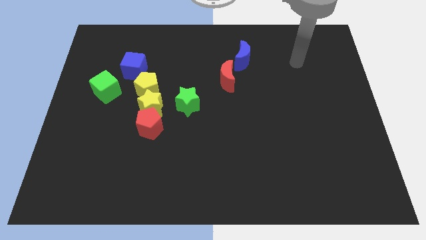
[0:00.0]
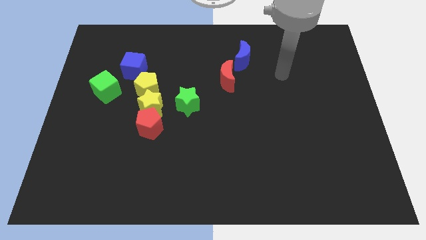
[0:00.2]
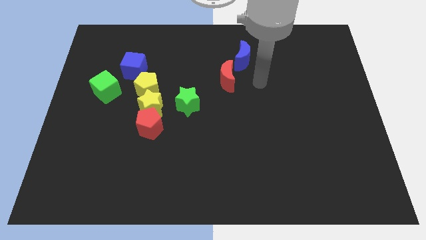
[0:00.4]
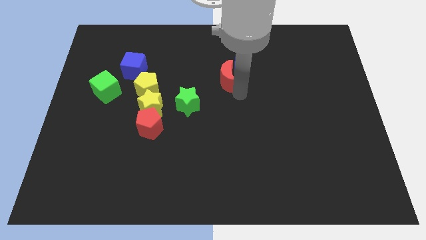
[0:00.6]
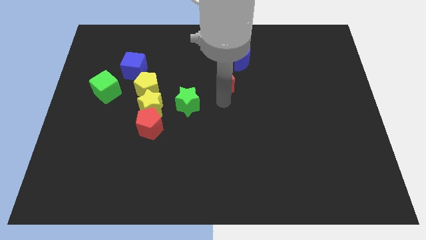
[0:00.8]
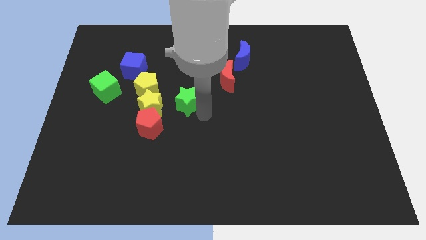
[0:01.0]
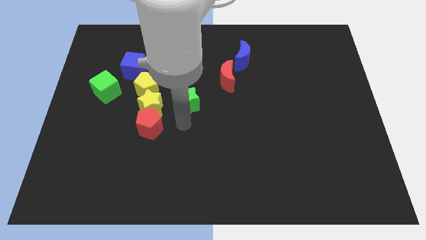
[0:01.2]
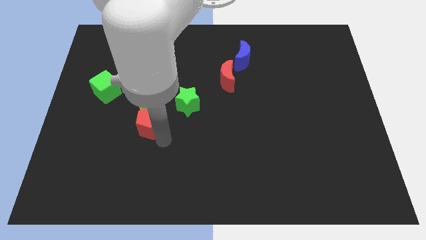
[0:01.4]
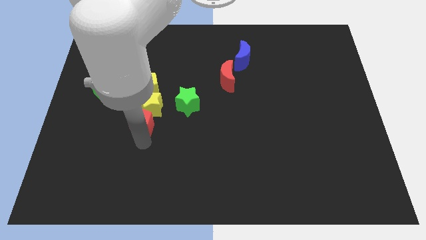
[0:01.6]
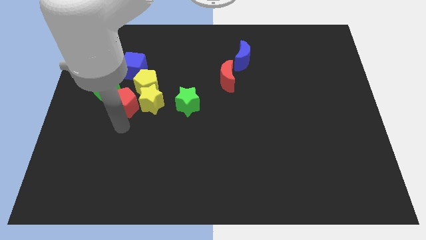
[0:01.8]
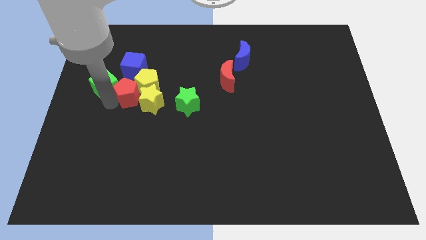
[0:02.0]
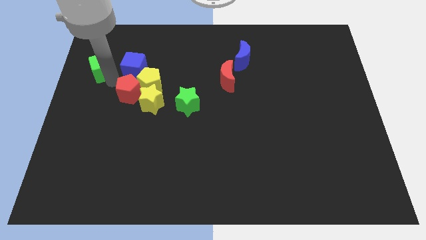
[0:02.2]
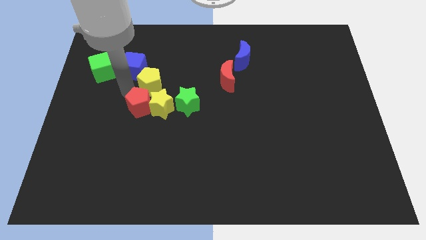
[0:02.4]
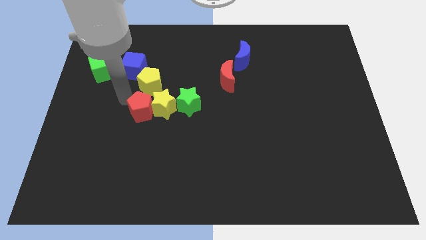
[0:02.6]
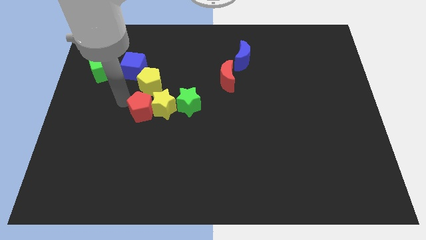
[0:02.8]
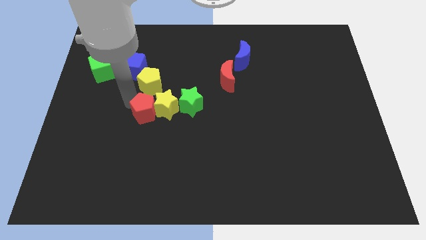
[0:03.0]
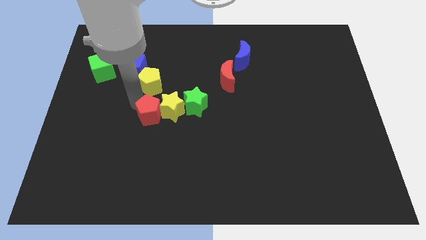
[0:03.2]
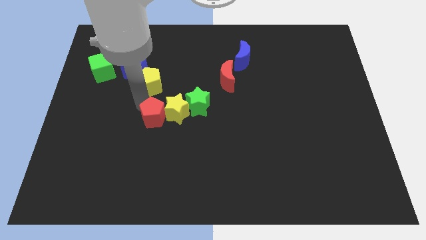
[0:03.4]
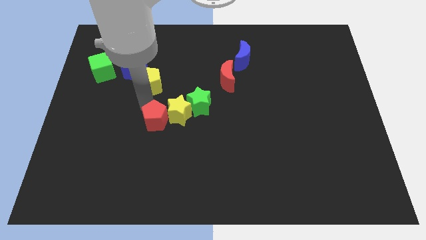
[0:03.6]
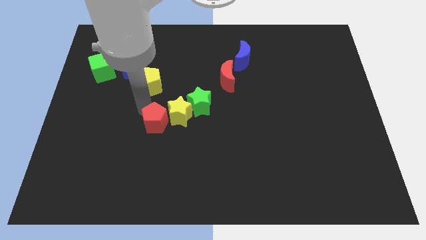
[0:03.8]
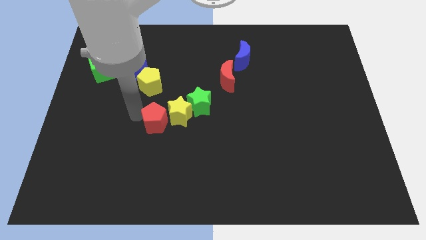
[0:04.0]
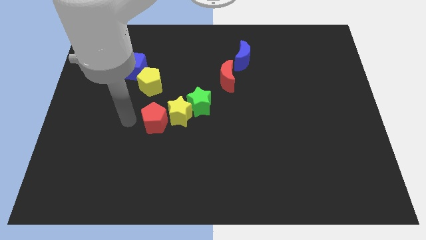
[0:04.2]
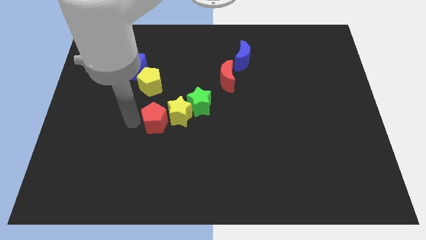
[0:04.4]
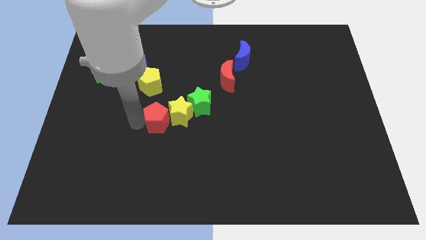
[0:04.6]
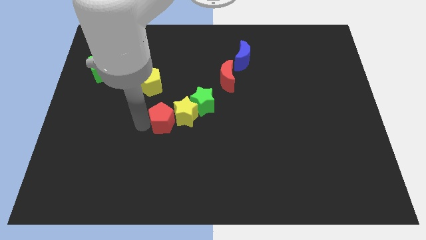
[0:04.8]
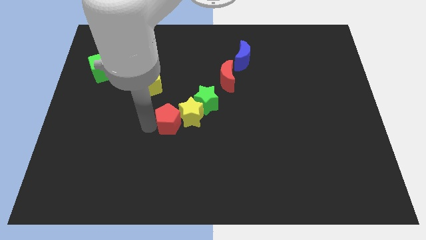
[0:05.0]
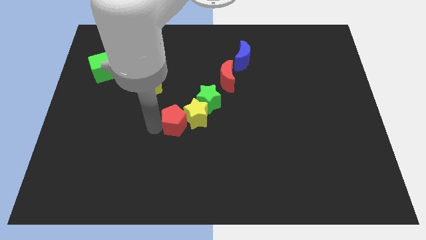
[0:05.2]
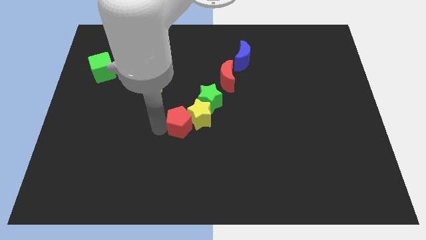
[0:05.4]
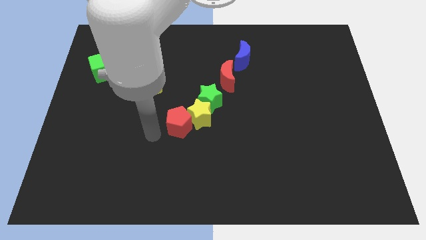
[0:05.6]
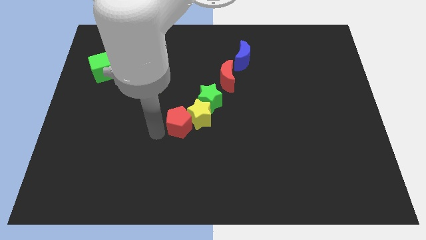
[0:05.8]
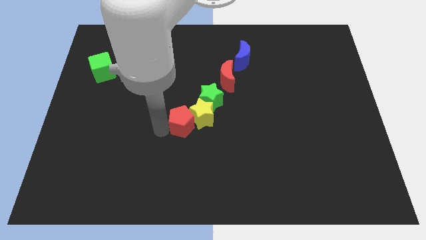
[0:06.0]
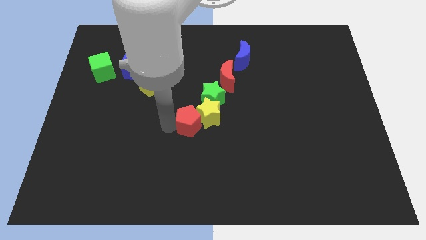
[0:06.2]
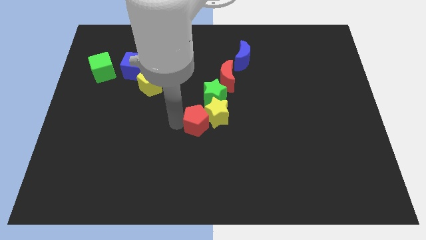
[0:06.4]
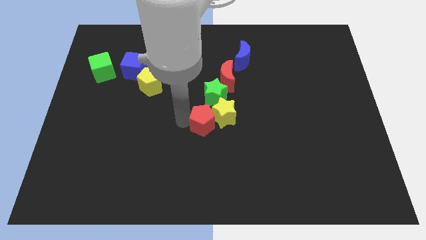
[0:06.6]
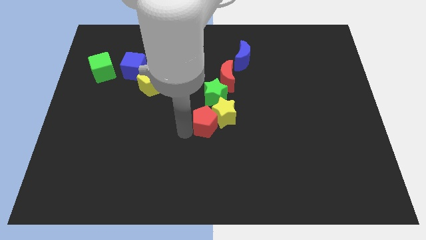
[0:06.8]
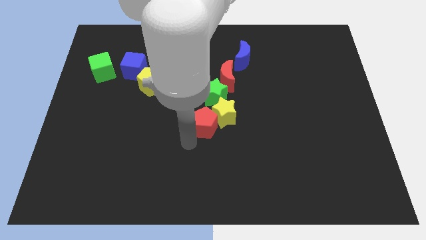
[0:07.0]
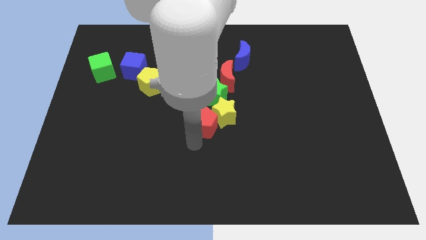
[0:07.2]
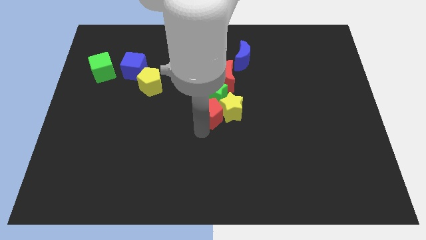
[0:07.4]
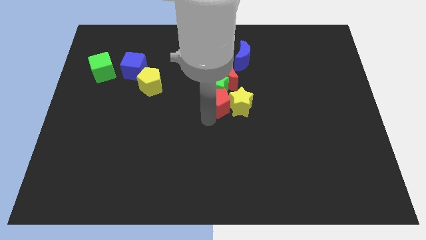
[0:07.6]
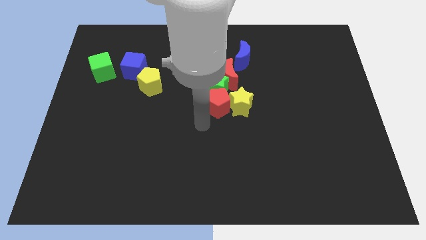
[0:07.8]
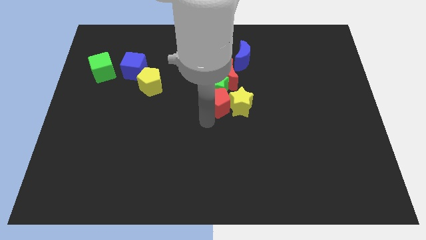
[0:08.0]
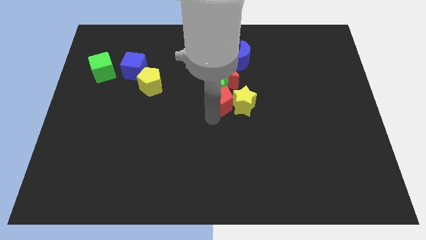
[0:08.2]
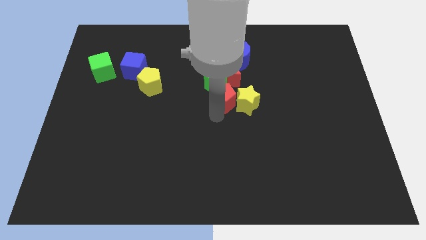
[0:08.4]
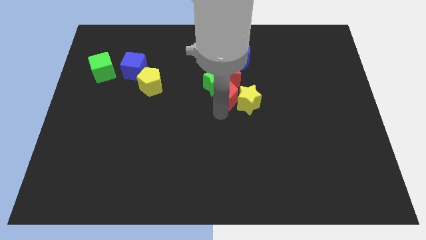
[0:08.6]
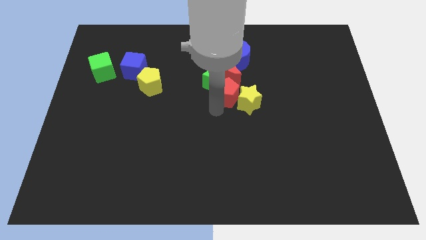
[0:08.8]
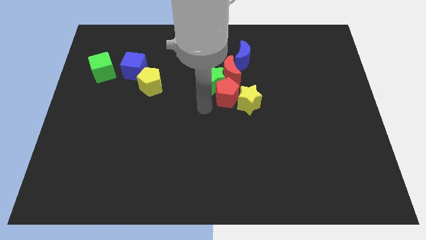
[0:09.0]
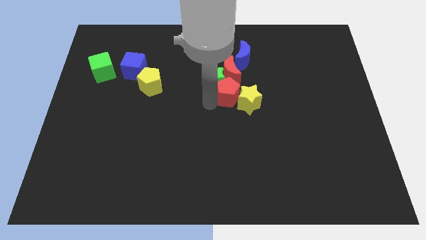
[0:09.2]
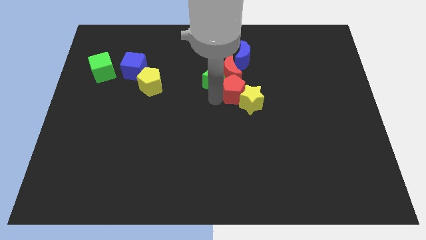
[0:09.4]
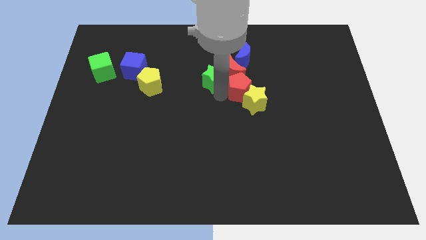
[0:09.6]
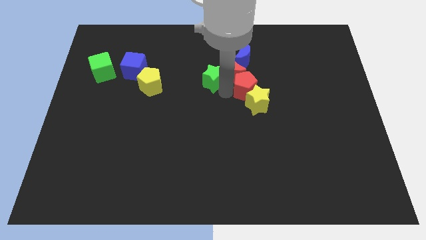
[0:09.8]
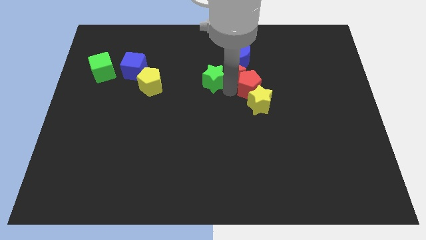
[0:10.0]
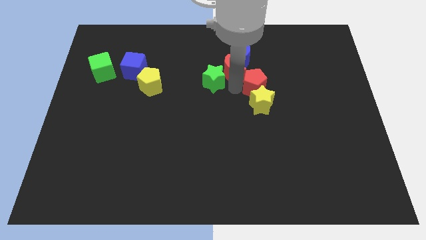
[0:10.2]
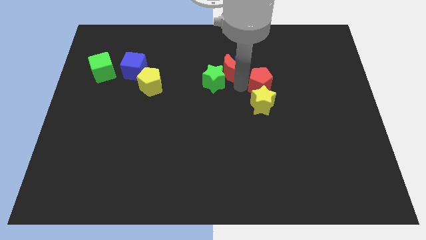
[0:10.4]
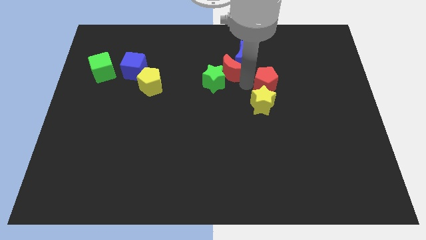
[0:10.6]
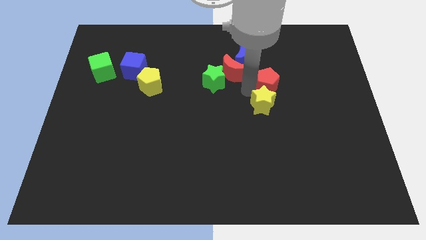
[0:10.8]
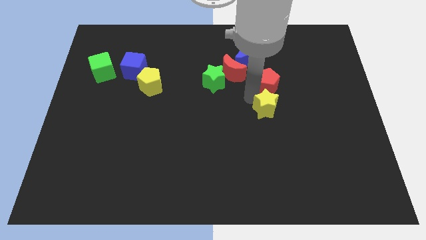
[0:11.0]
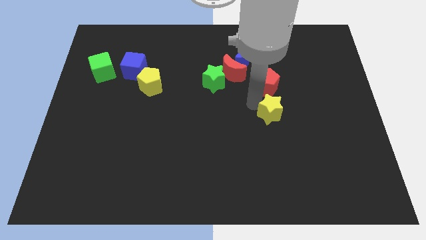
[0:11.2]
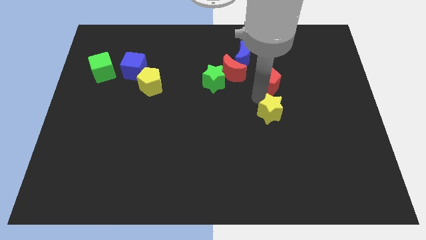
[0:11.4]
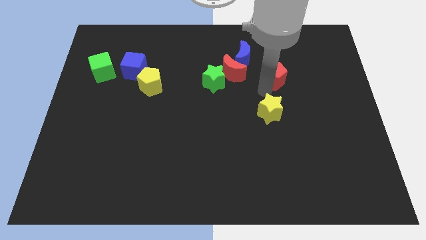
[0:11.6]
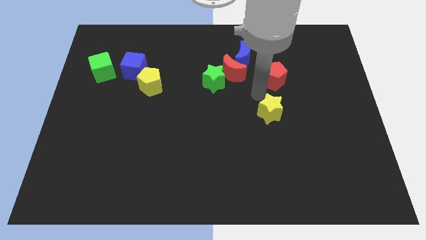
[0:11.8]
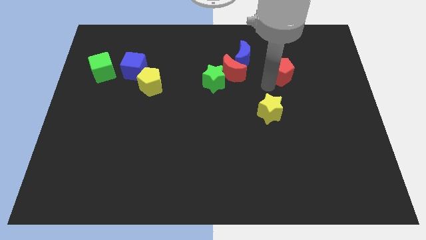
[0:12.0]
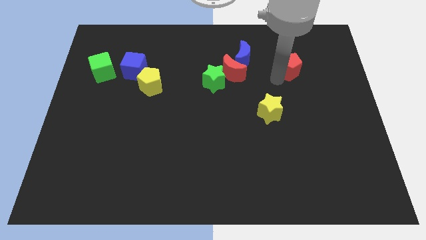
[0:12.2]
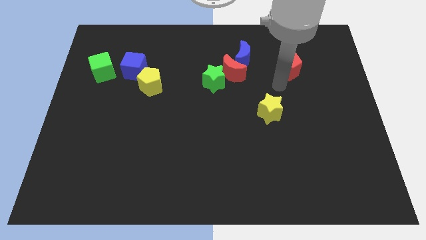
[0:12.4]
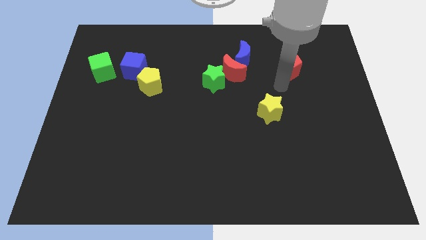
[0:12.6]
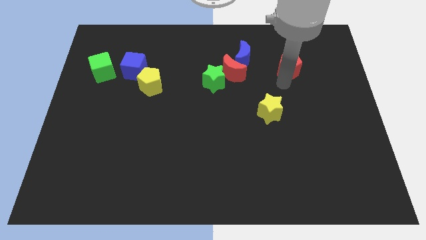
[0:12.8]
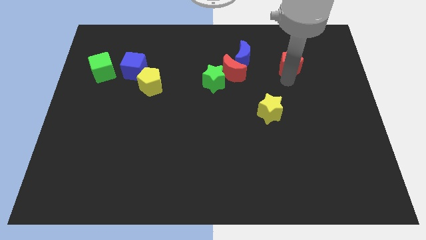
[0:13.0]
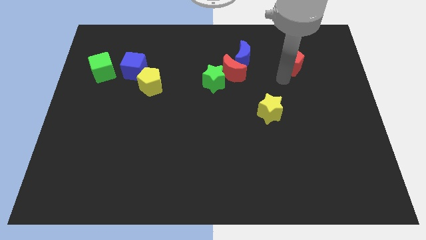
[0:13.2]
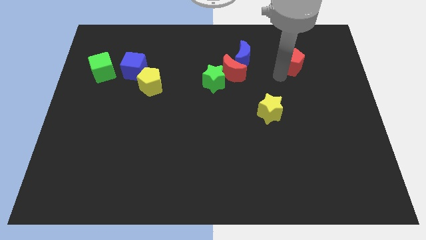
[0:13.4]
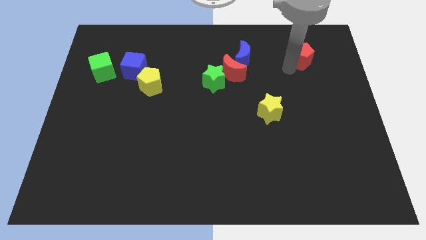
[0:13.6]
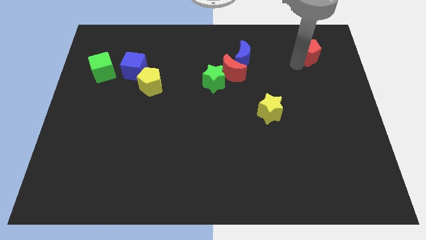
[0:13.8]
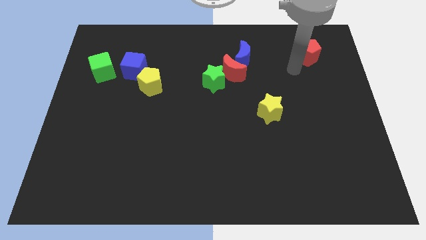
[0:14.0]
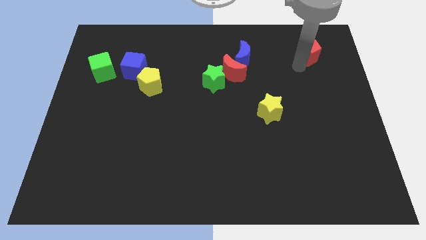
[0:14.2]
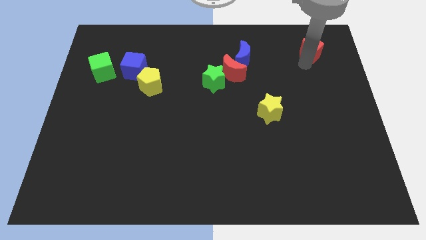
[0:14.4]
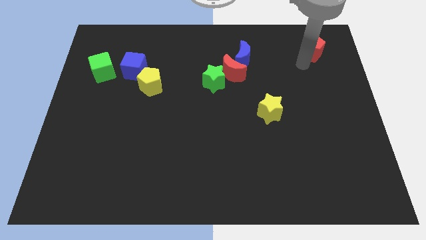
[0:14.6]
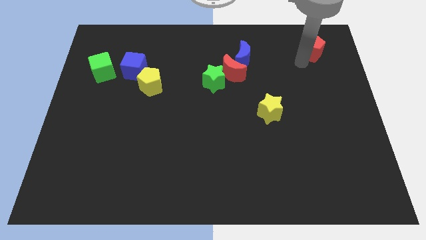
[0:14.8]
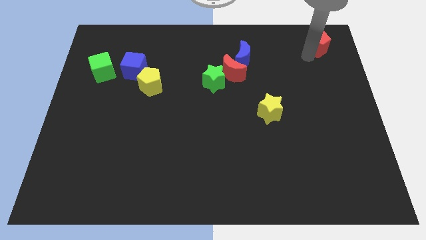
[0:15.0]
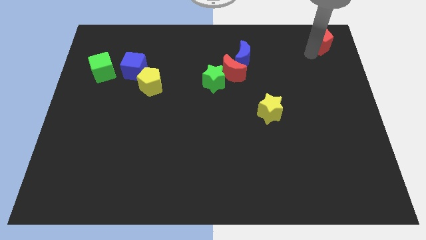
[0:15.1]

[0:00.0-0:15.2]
put the red pentagon to the top right
